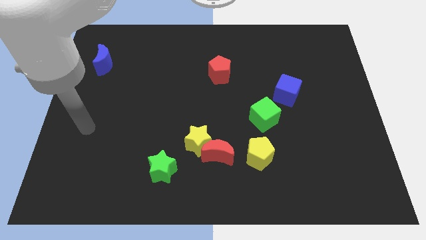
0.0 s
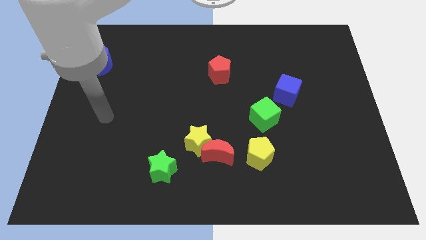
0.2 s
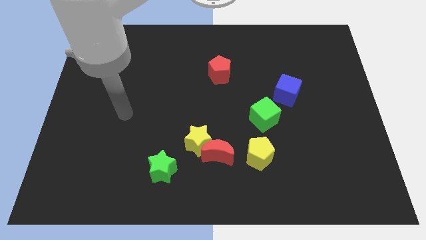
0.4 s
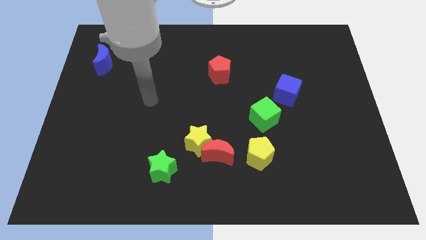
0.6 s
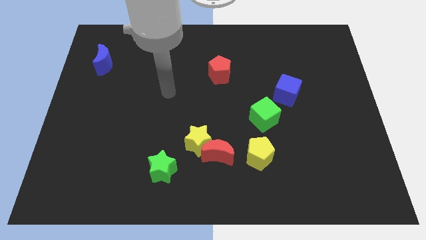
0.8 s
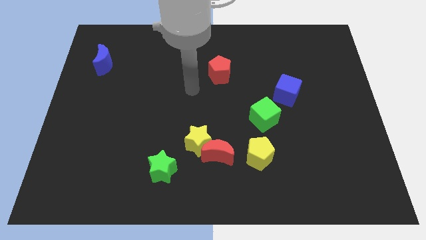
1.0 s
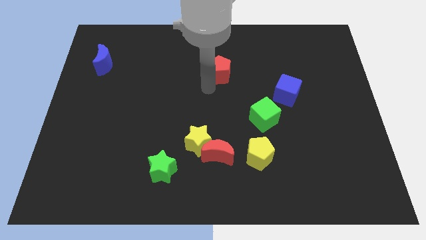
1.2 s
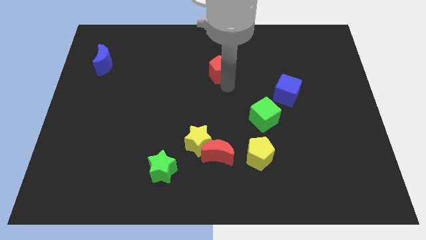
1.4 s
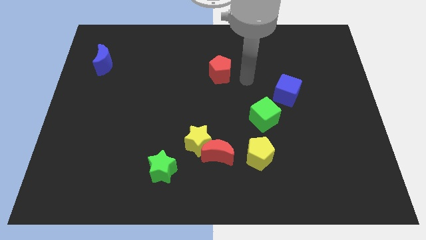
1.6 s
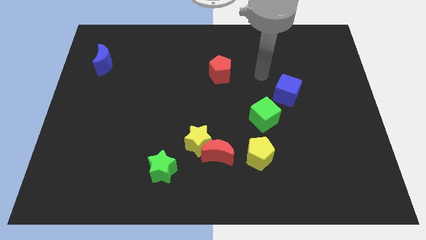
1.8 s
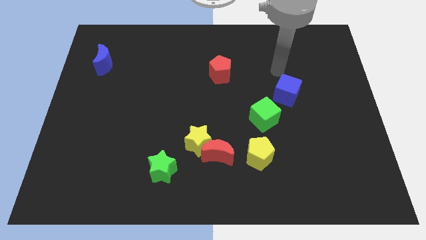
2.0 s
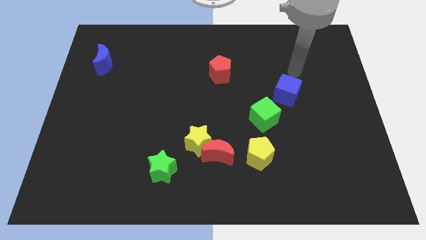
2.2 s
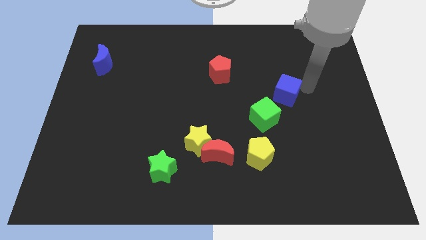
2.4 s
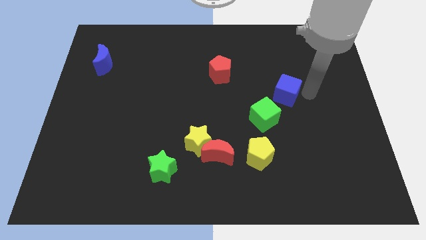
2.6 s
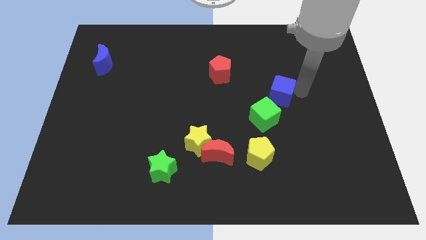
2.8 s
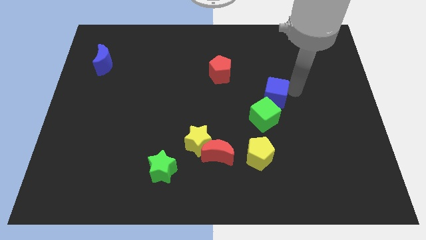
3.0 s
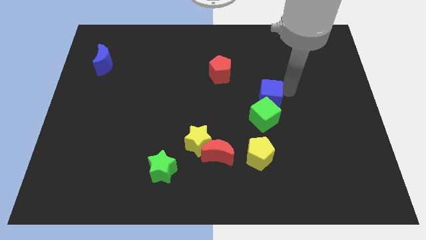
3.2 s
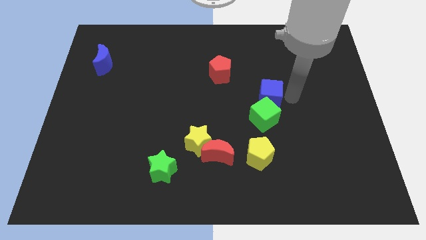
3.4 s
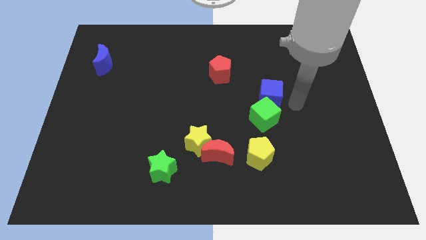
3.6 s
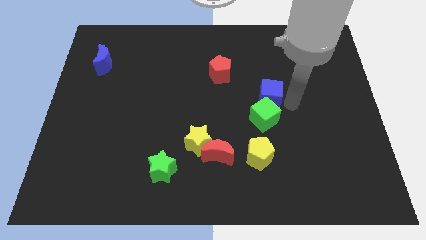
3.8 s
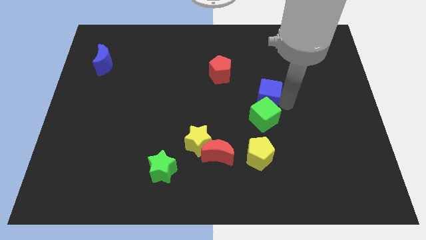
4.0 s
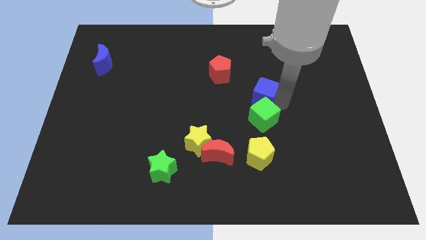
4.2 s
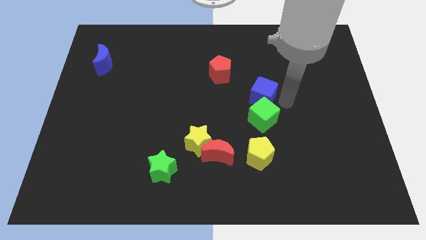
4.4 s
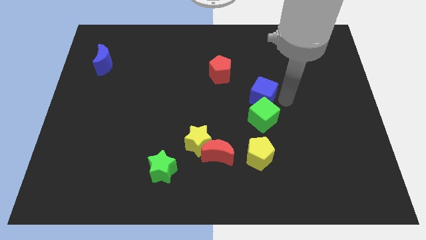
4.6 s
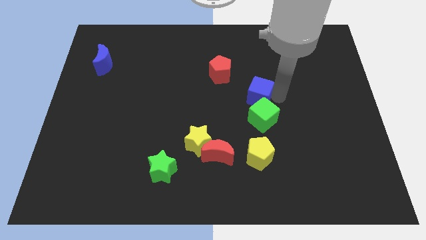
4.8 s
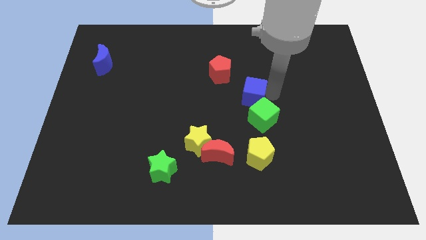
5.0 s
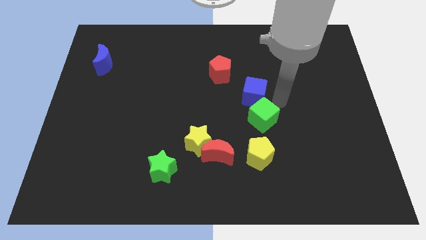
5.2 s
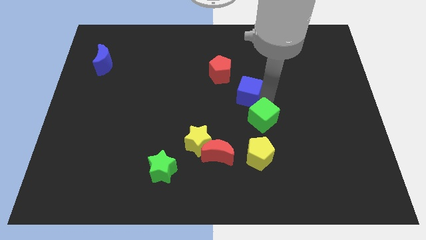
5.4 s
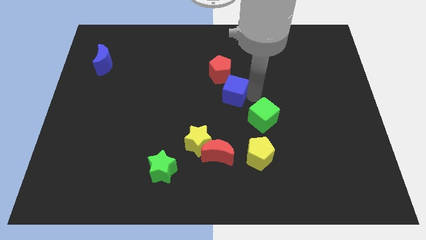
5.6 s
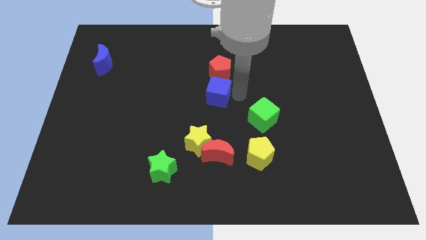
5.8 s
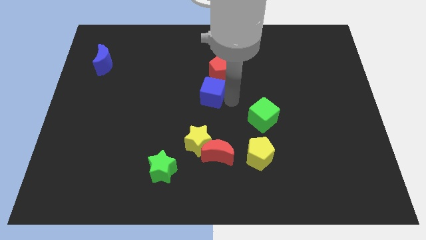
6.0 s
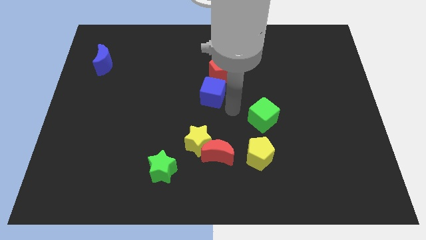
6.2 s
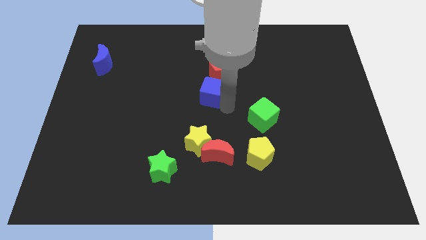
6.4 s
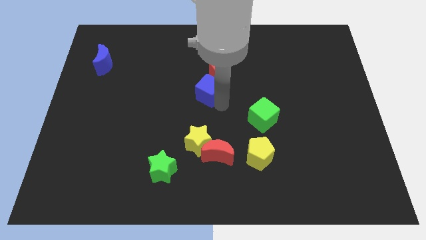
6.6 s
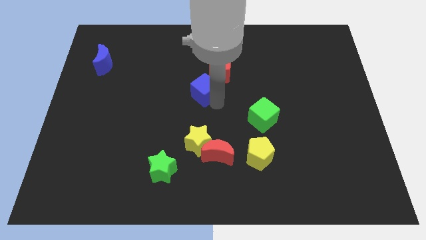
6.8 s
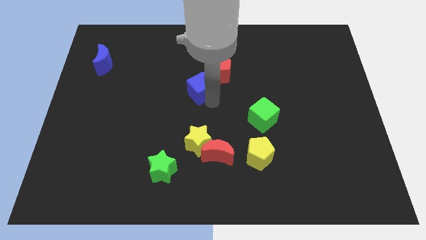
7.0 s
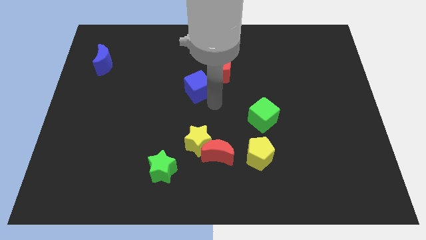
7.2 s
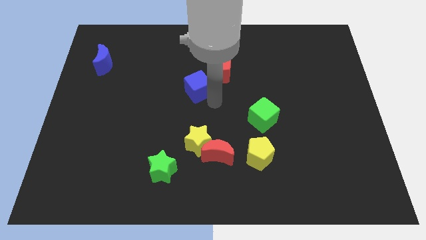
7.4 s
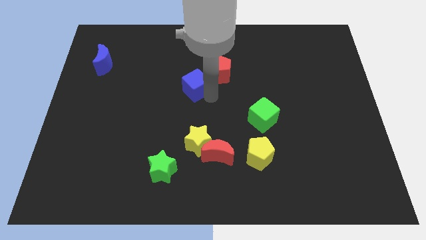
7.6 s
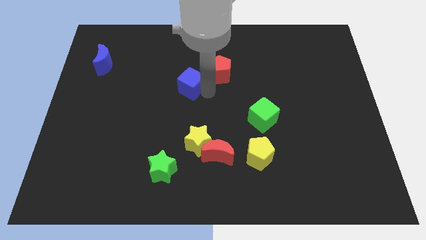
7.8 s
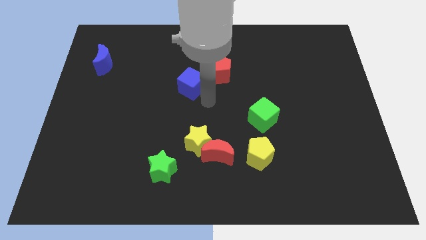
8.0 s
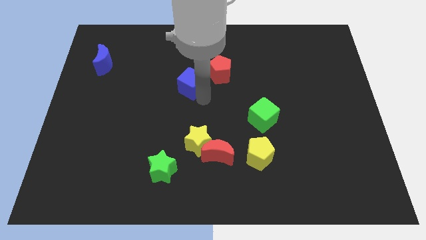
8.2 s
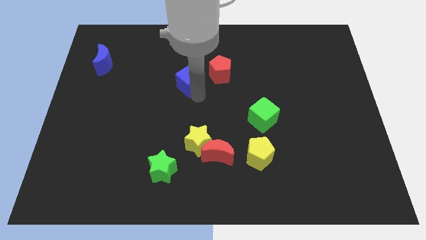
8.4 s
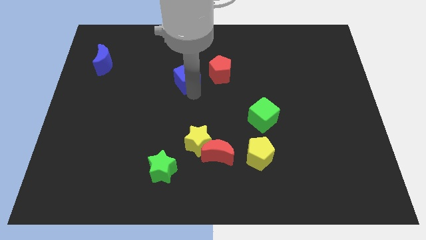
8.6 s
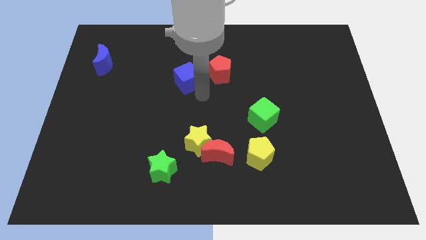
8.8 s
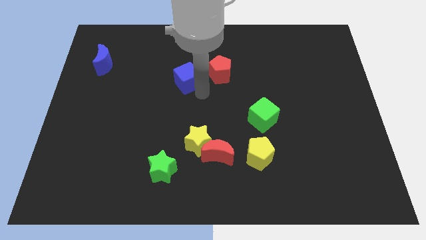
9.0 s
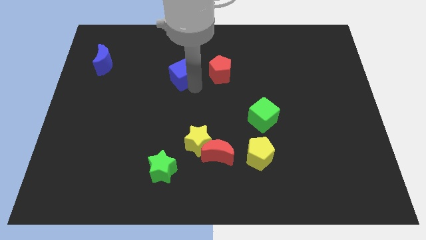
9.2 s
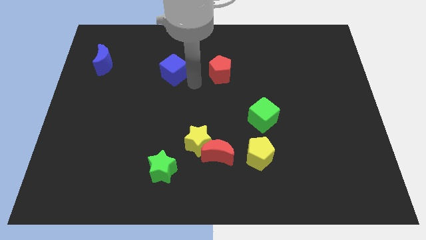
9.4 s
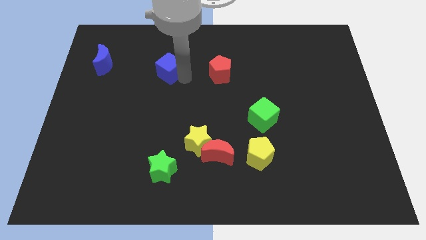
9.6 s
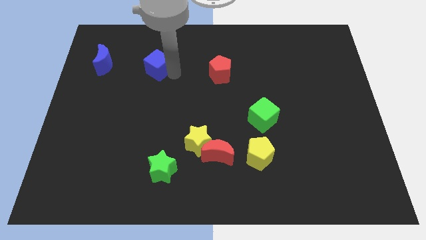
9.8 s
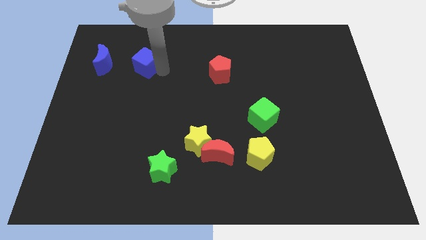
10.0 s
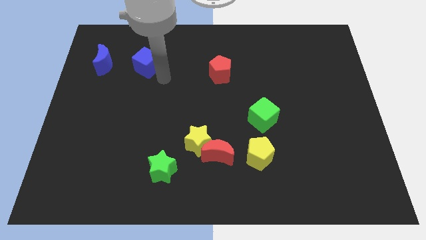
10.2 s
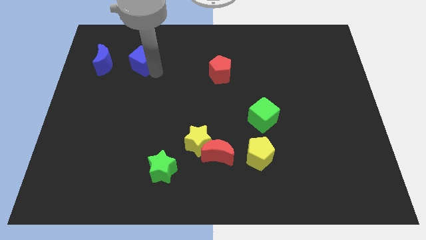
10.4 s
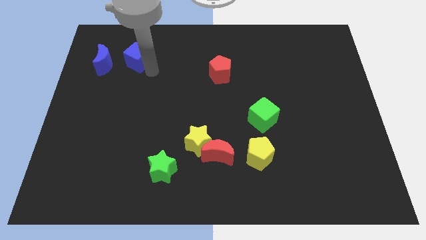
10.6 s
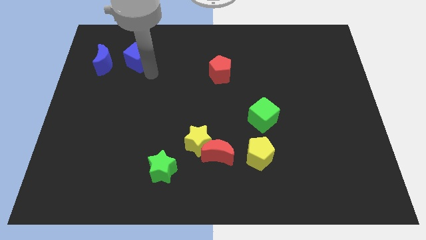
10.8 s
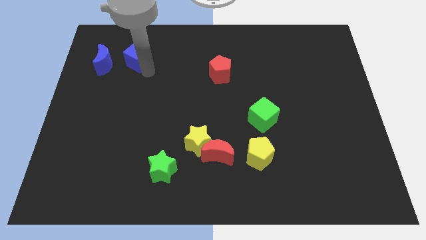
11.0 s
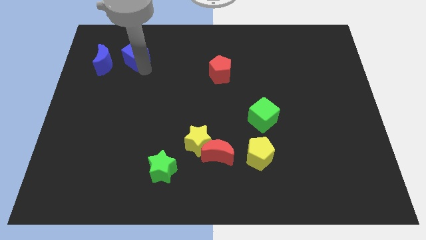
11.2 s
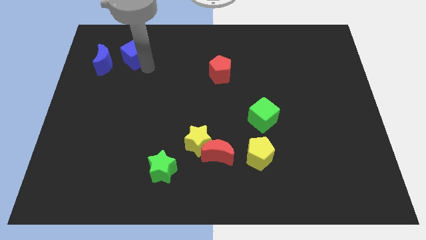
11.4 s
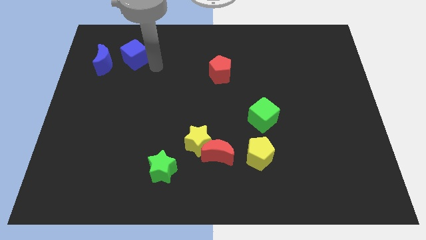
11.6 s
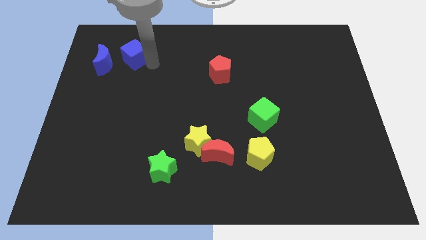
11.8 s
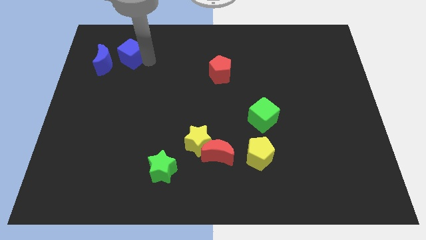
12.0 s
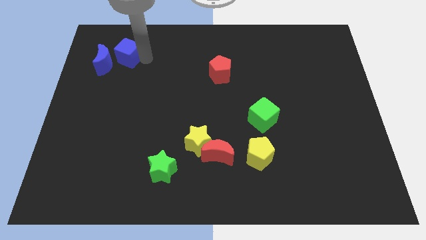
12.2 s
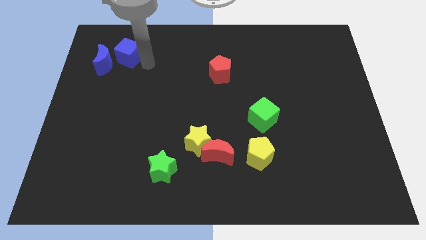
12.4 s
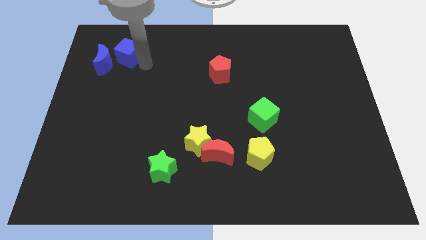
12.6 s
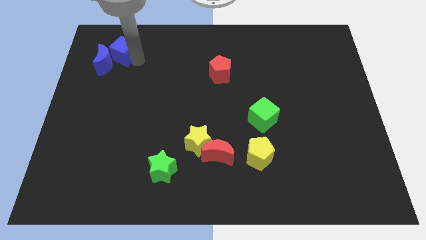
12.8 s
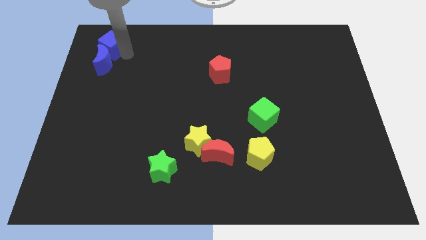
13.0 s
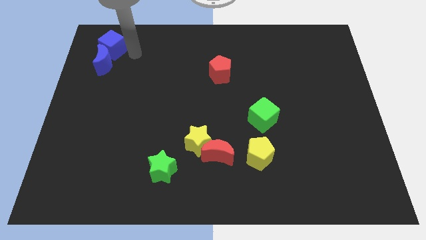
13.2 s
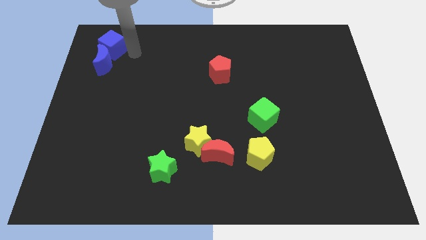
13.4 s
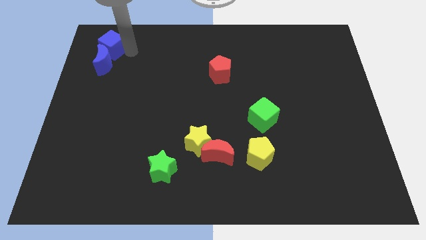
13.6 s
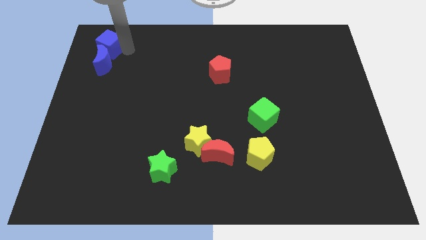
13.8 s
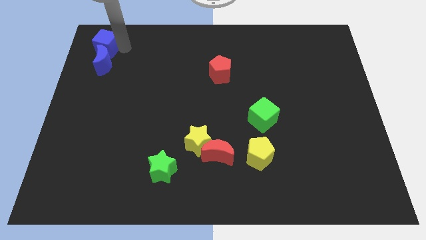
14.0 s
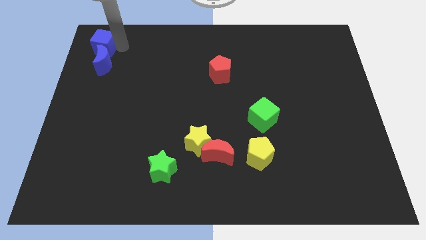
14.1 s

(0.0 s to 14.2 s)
slide the blue cube to the upper left corner
